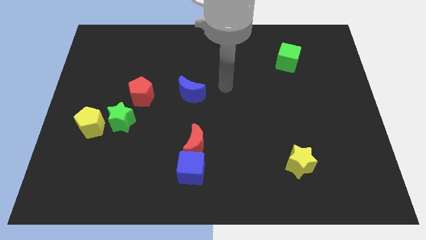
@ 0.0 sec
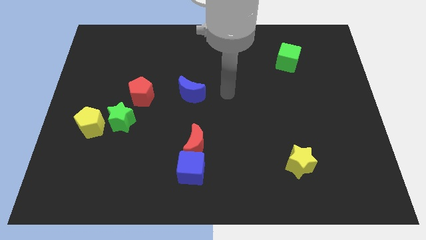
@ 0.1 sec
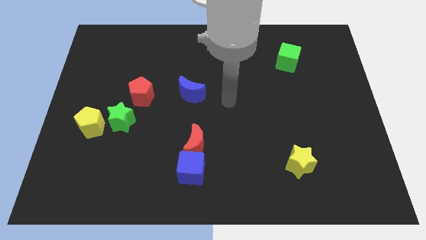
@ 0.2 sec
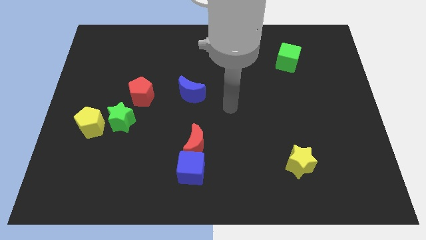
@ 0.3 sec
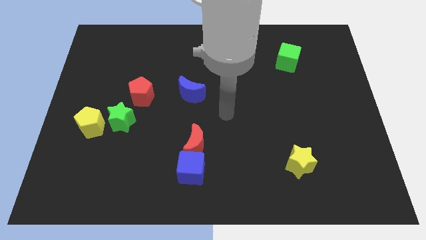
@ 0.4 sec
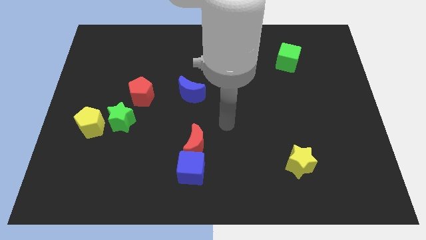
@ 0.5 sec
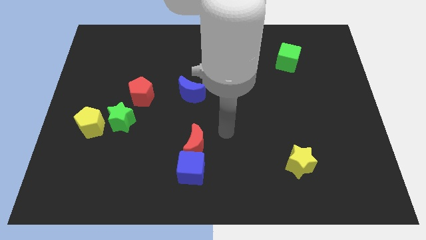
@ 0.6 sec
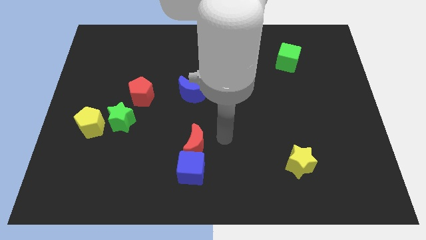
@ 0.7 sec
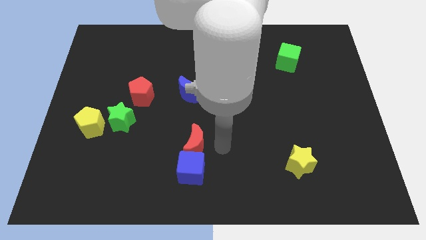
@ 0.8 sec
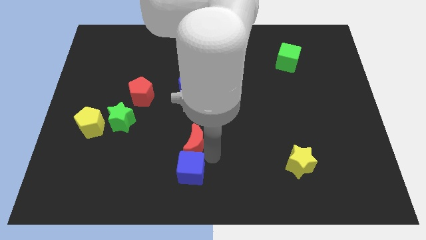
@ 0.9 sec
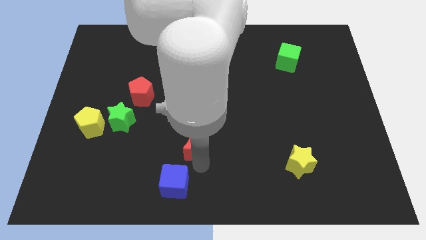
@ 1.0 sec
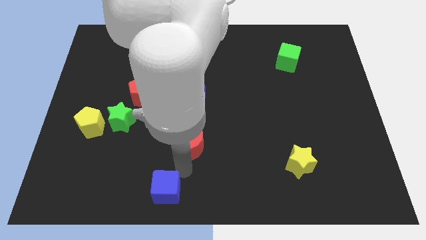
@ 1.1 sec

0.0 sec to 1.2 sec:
move the red moon away from the blue cube

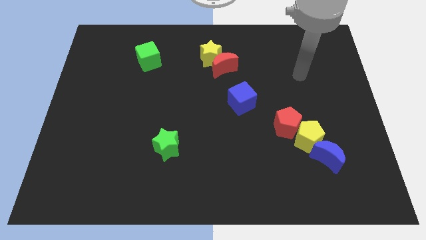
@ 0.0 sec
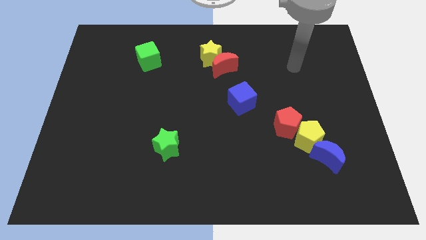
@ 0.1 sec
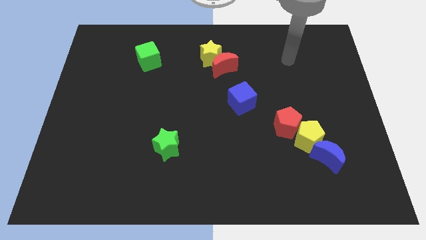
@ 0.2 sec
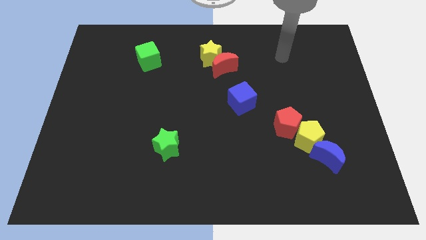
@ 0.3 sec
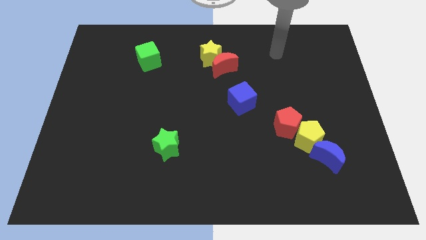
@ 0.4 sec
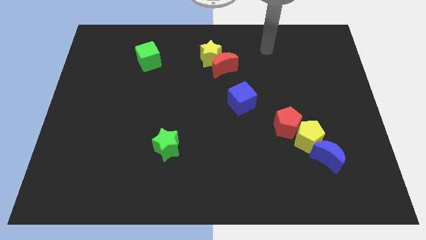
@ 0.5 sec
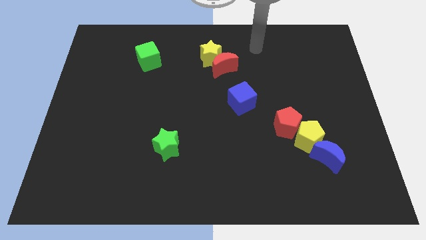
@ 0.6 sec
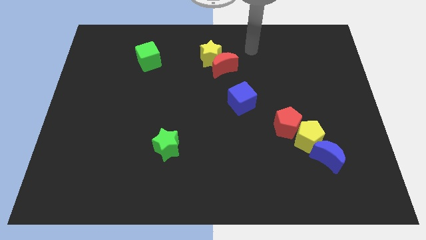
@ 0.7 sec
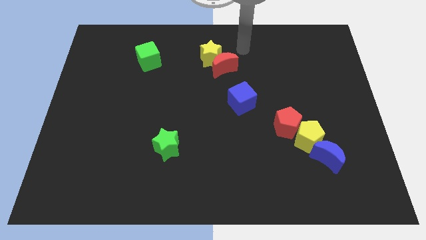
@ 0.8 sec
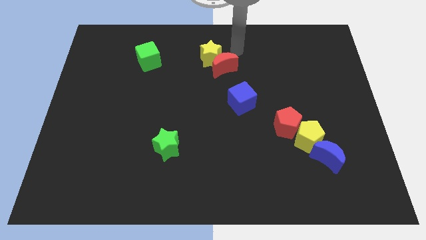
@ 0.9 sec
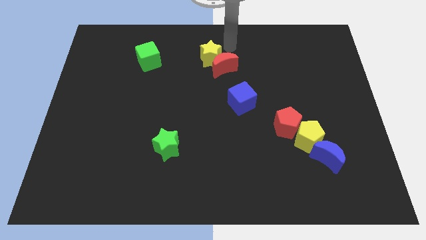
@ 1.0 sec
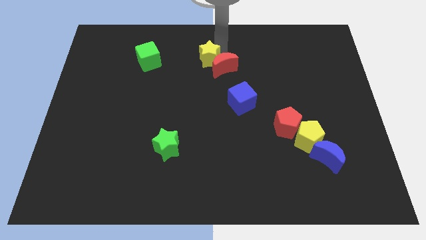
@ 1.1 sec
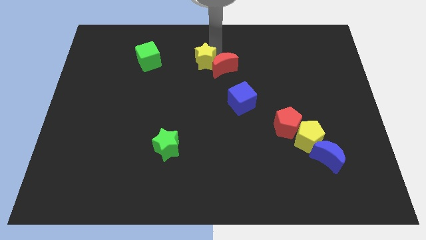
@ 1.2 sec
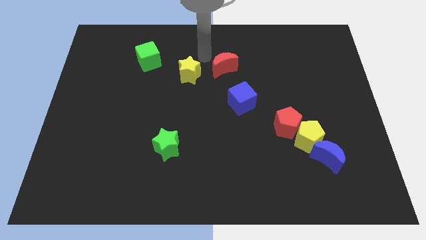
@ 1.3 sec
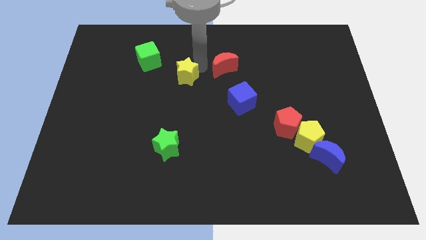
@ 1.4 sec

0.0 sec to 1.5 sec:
pull the red moon apart from the yellow star

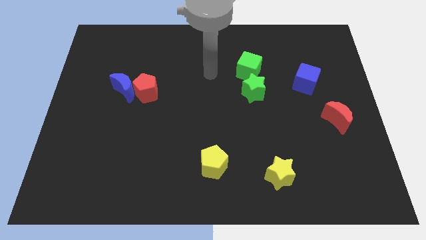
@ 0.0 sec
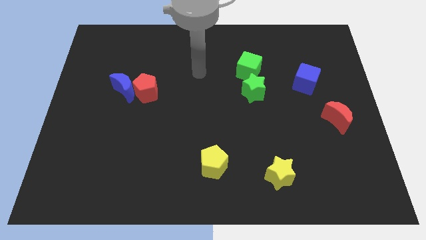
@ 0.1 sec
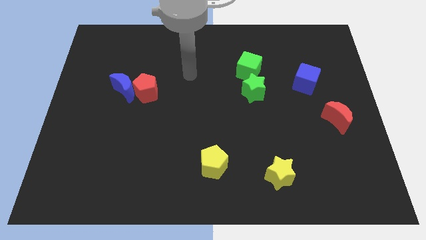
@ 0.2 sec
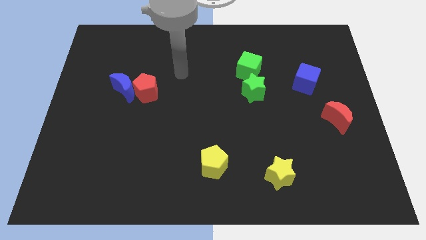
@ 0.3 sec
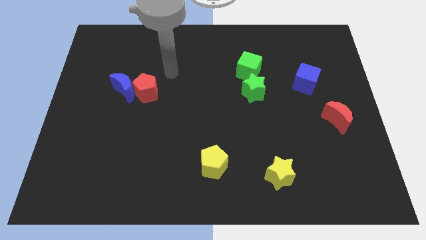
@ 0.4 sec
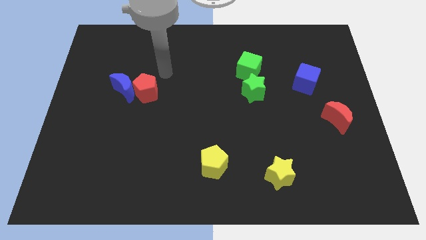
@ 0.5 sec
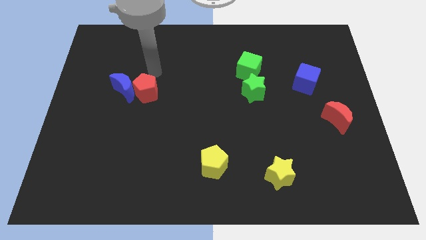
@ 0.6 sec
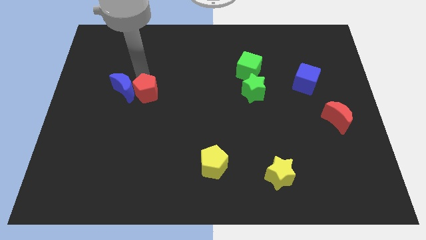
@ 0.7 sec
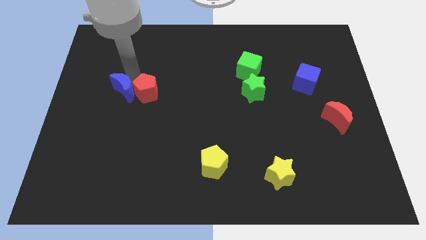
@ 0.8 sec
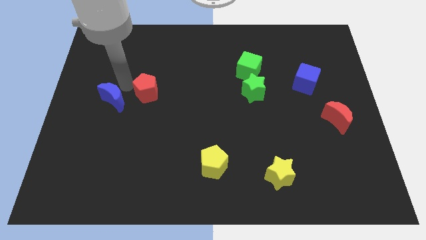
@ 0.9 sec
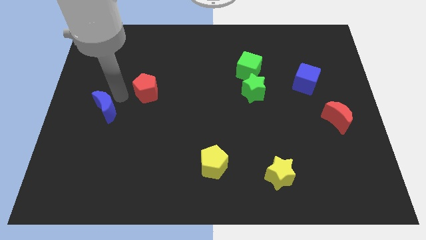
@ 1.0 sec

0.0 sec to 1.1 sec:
move the red pentagon away from the blue moon

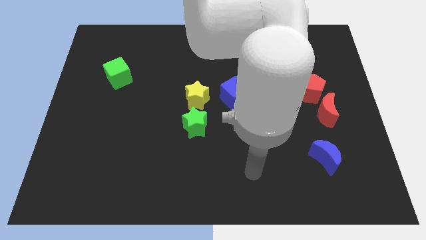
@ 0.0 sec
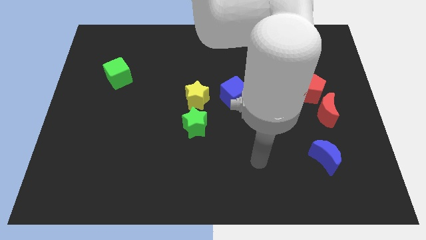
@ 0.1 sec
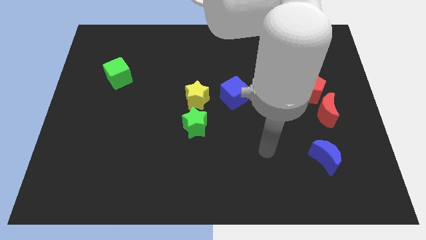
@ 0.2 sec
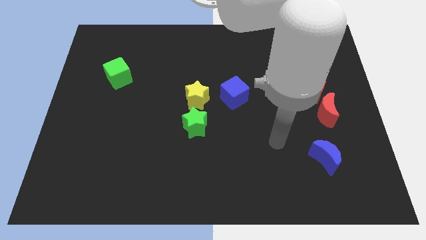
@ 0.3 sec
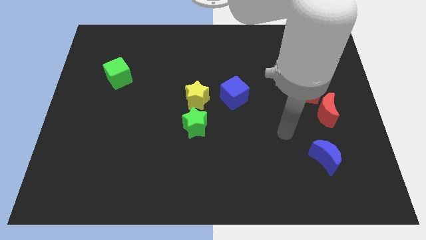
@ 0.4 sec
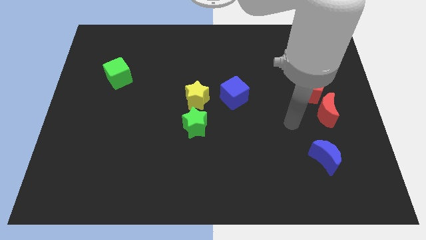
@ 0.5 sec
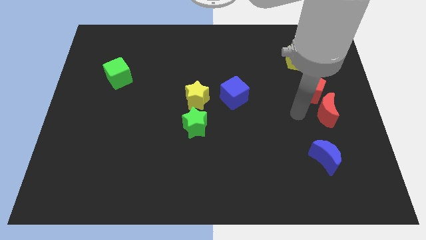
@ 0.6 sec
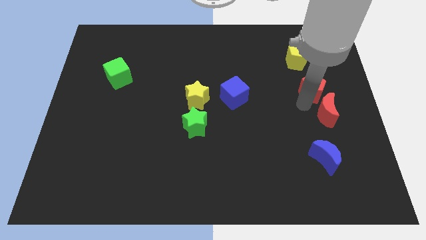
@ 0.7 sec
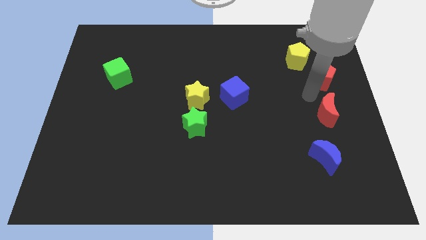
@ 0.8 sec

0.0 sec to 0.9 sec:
move the red moon away from the red pentagon

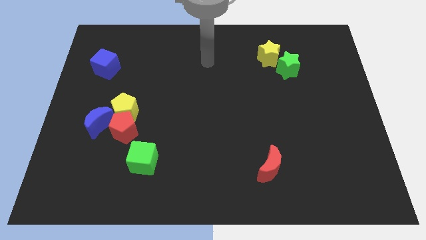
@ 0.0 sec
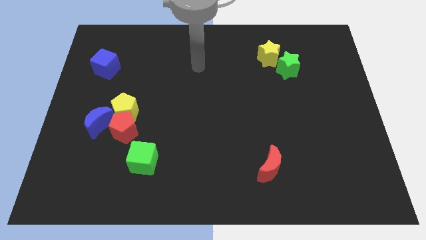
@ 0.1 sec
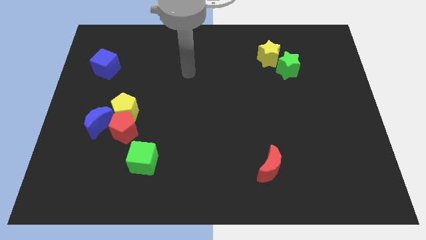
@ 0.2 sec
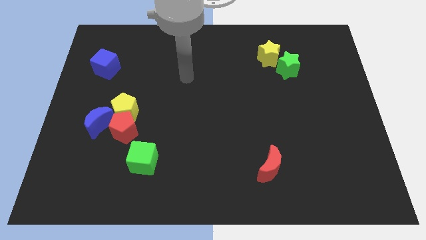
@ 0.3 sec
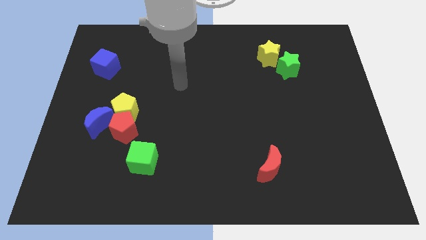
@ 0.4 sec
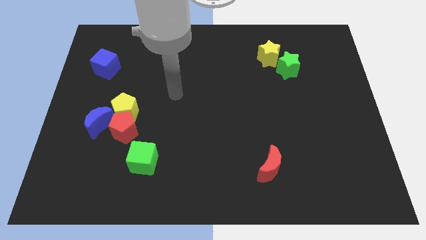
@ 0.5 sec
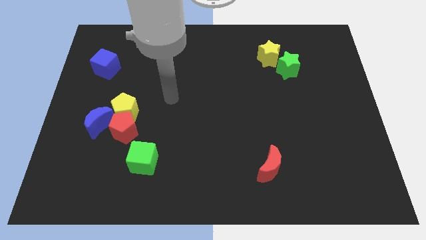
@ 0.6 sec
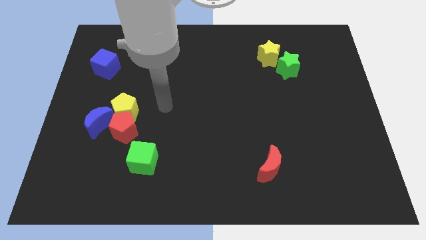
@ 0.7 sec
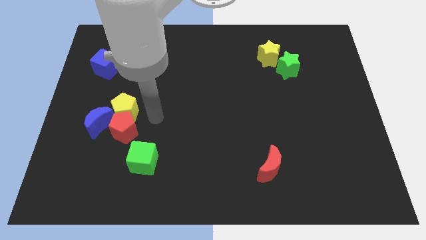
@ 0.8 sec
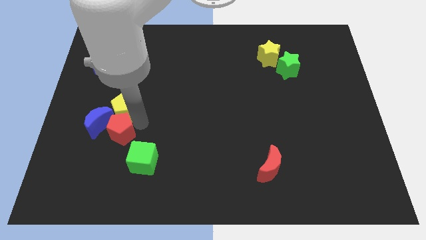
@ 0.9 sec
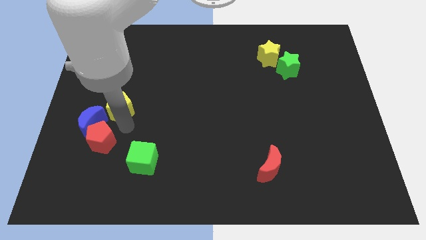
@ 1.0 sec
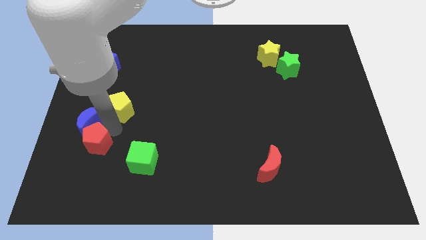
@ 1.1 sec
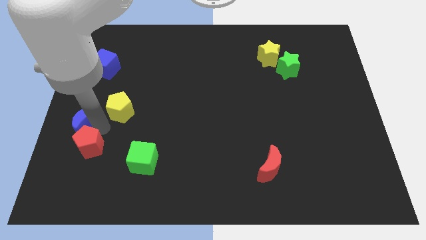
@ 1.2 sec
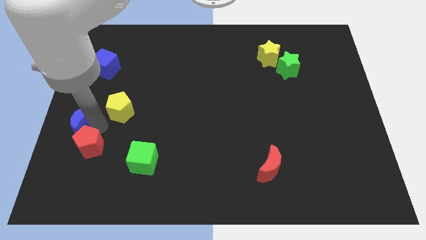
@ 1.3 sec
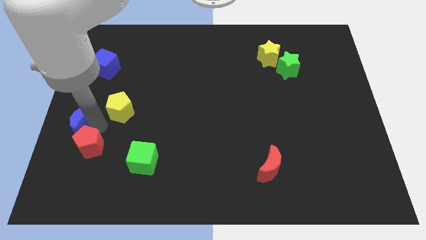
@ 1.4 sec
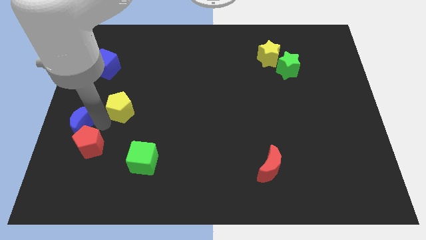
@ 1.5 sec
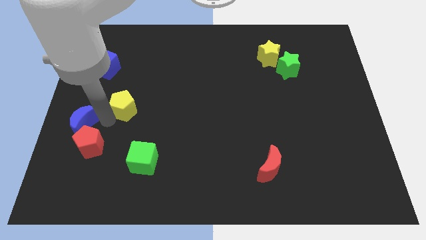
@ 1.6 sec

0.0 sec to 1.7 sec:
pull the yellow pentagon apart from the red pentagon and blue moon

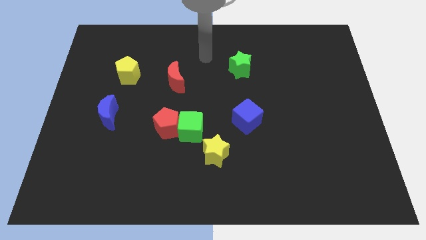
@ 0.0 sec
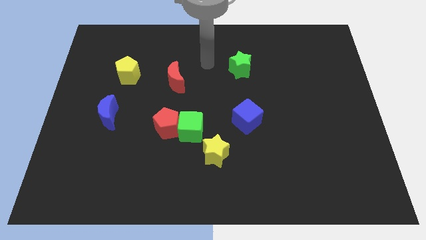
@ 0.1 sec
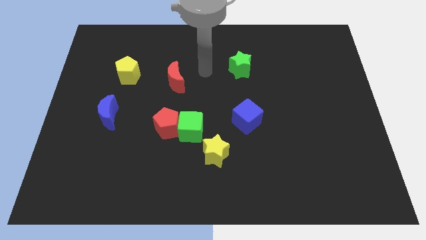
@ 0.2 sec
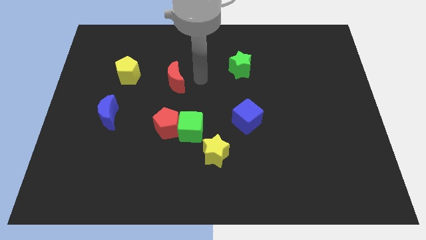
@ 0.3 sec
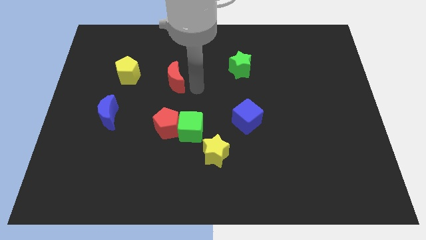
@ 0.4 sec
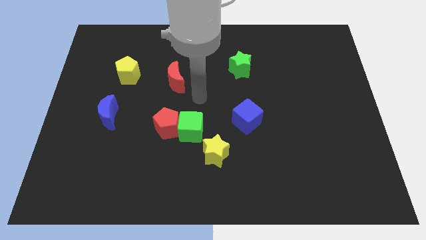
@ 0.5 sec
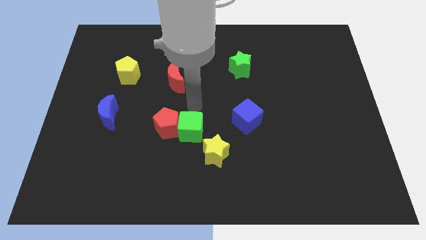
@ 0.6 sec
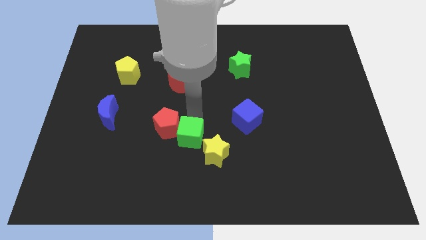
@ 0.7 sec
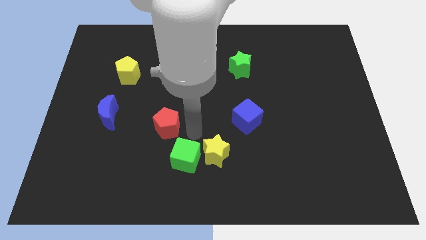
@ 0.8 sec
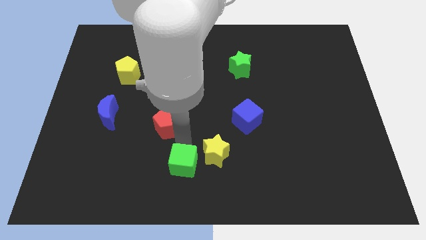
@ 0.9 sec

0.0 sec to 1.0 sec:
pull the red pentagon apart from the green cube

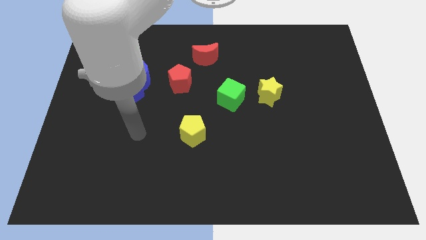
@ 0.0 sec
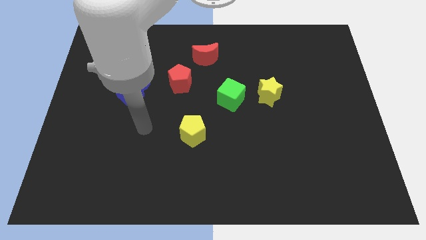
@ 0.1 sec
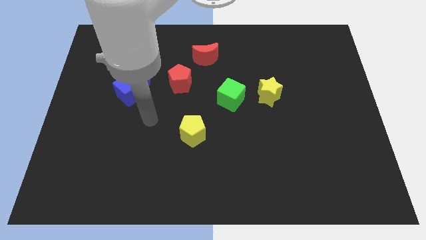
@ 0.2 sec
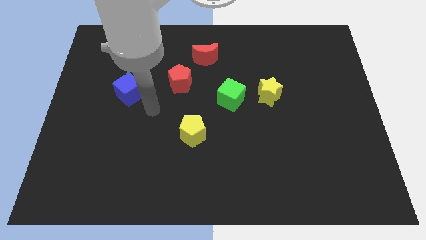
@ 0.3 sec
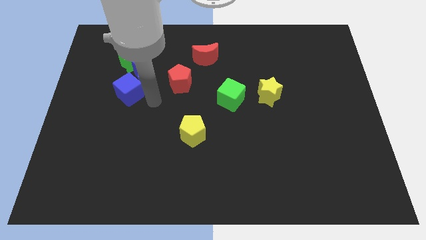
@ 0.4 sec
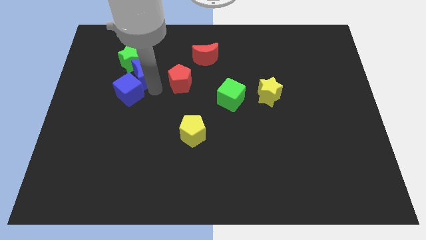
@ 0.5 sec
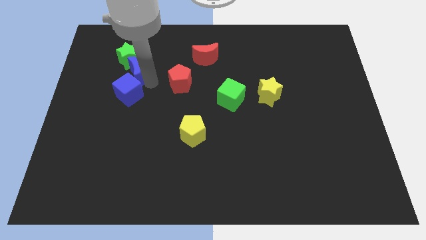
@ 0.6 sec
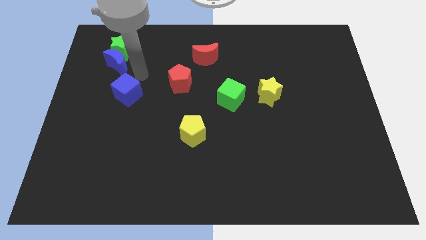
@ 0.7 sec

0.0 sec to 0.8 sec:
move the blue cube away from the blue moon

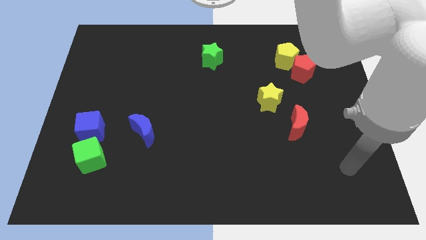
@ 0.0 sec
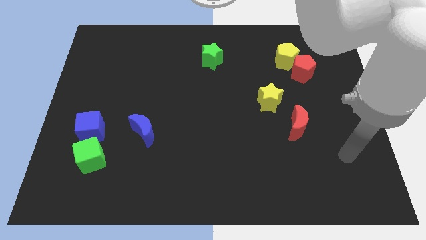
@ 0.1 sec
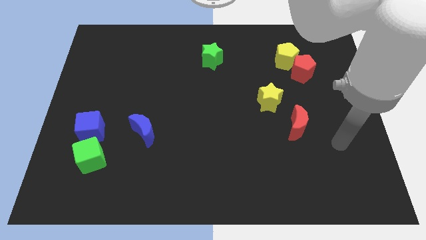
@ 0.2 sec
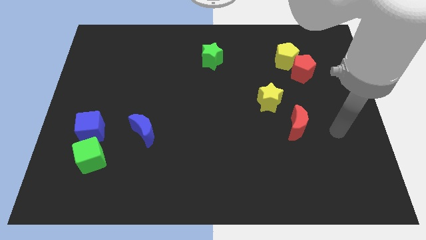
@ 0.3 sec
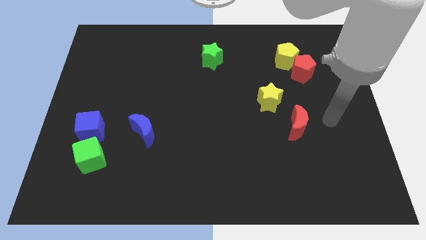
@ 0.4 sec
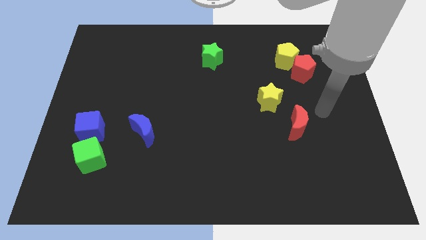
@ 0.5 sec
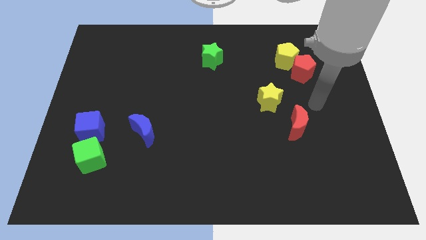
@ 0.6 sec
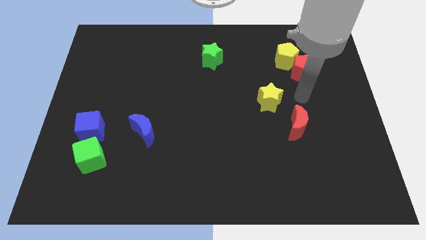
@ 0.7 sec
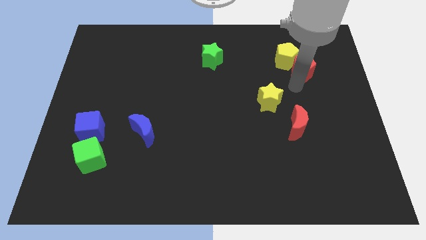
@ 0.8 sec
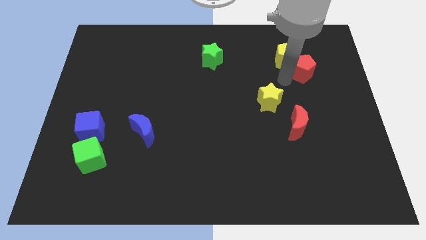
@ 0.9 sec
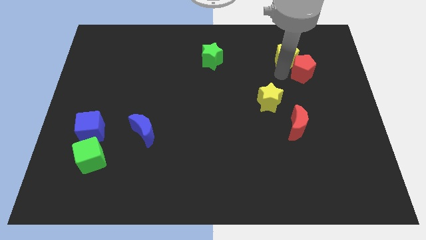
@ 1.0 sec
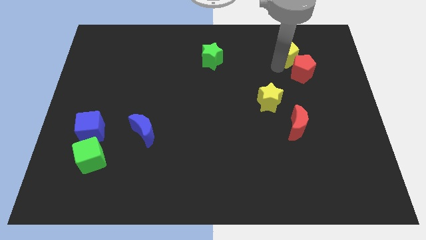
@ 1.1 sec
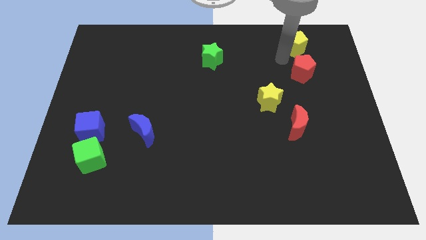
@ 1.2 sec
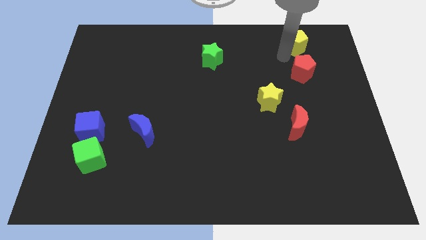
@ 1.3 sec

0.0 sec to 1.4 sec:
pull the red pentagon apart from the yellow pentagon
